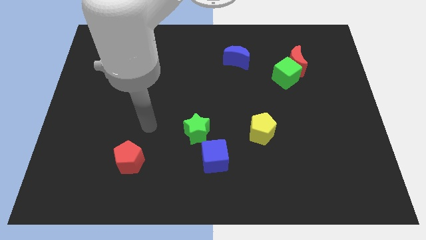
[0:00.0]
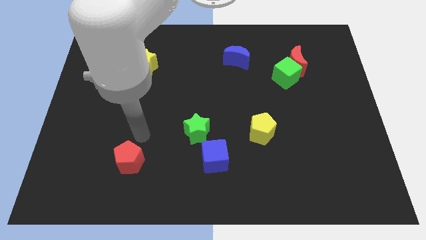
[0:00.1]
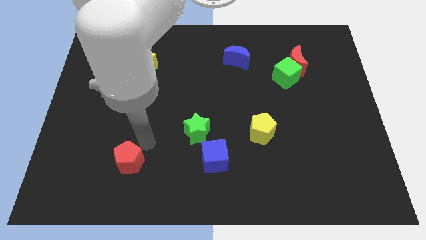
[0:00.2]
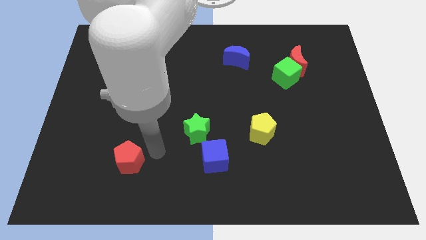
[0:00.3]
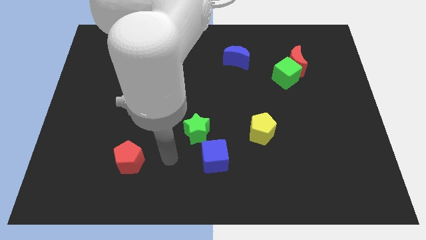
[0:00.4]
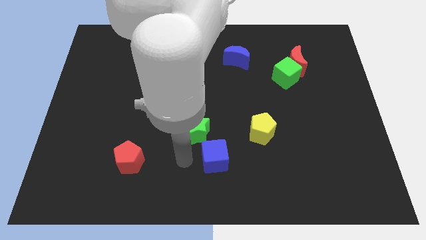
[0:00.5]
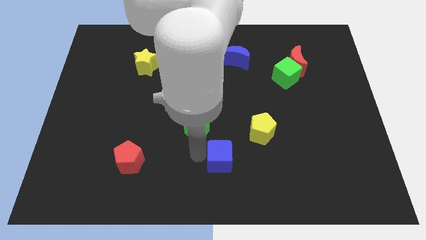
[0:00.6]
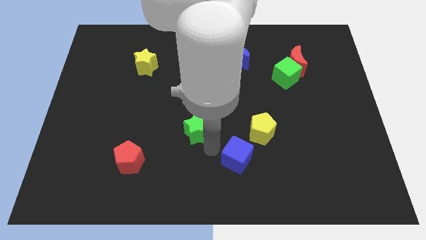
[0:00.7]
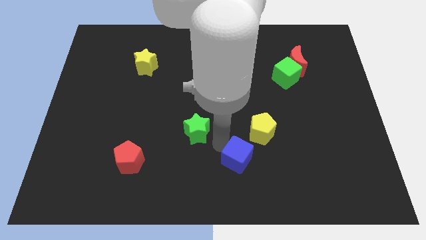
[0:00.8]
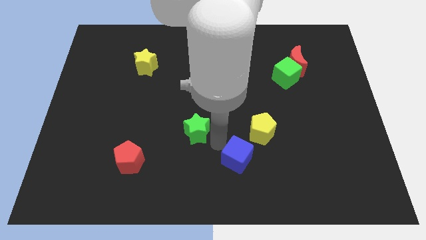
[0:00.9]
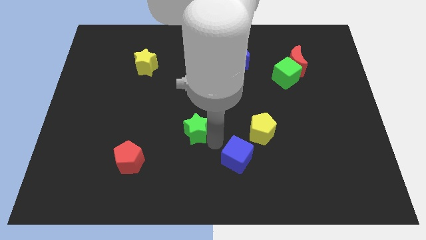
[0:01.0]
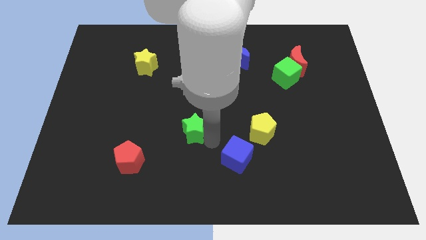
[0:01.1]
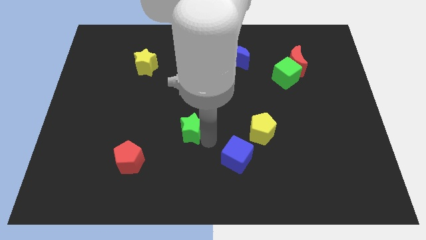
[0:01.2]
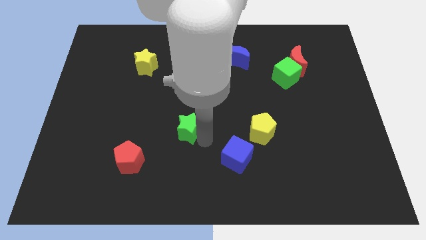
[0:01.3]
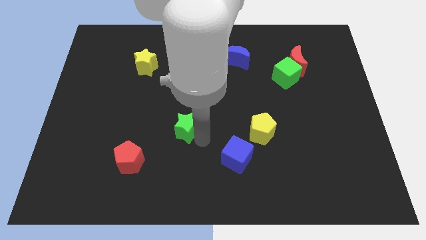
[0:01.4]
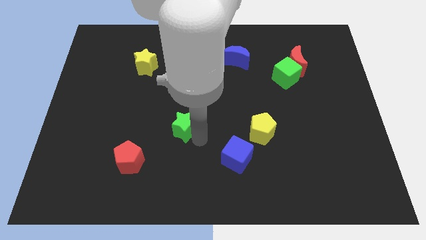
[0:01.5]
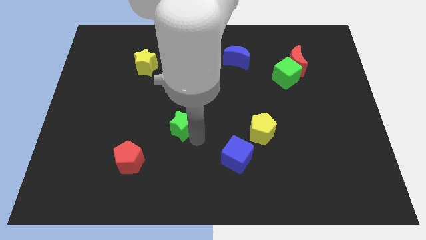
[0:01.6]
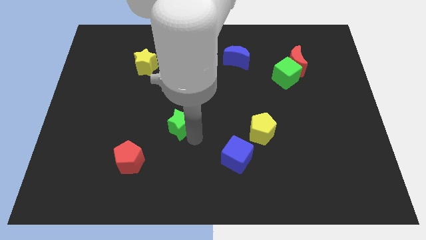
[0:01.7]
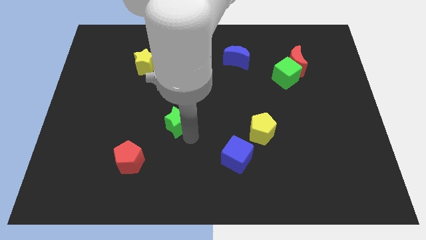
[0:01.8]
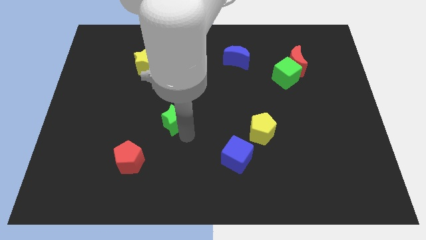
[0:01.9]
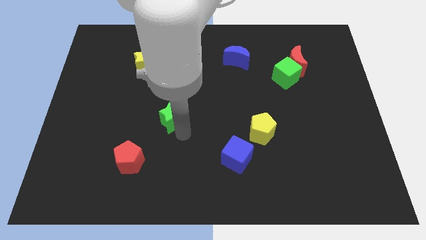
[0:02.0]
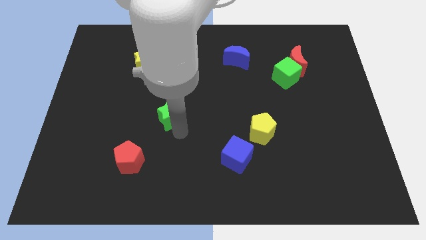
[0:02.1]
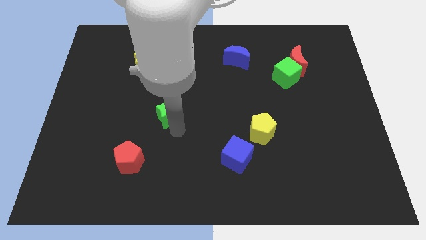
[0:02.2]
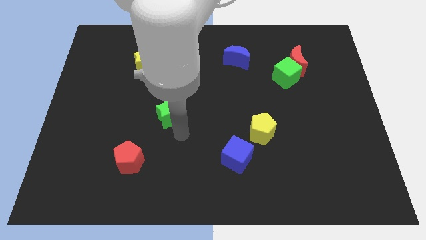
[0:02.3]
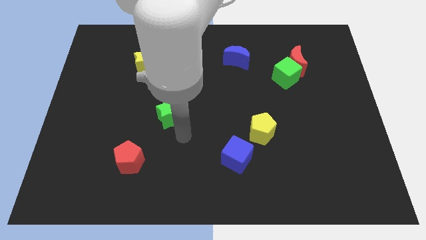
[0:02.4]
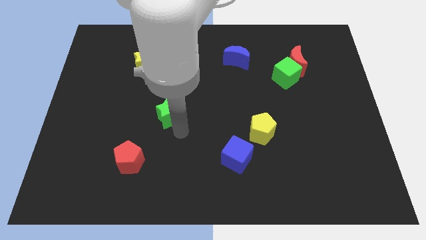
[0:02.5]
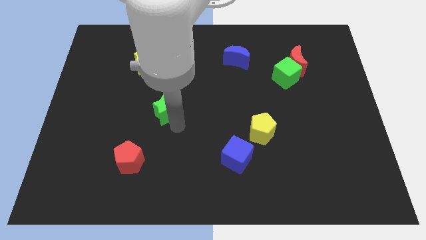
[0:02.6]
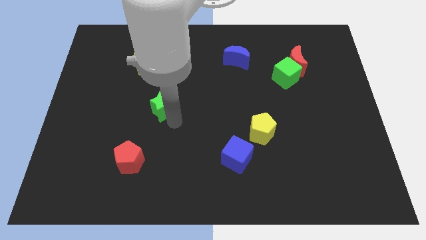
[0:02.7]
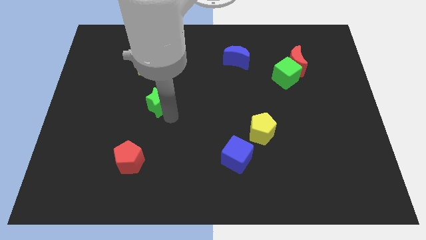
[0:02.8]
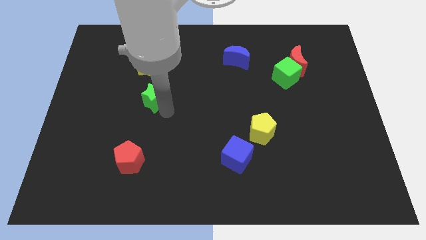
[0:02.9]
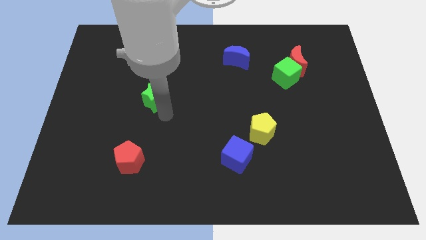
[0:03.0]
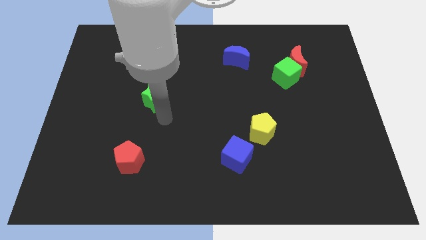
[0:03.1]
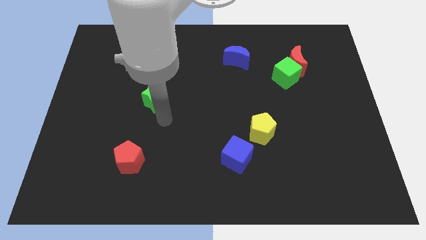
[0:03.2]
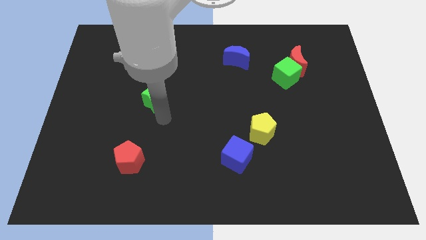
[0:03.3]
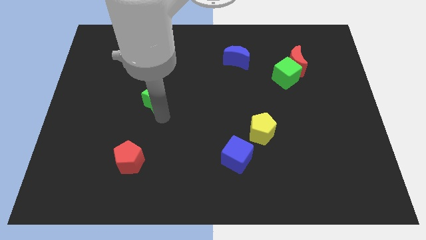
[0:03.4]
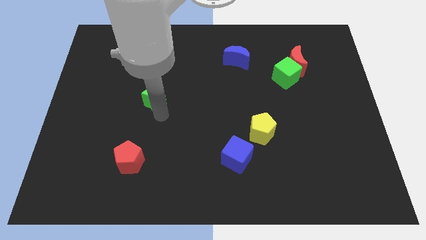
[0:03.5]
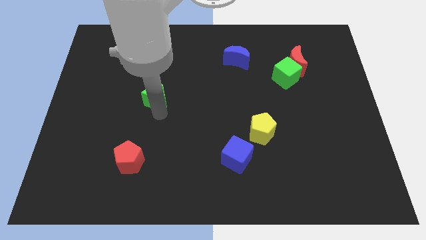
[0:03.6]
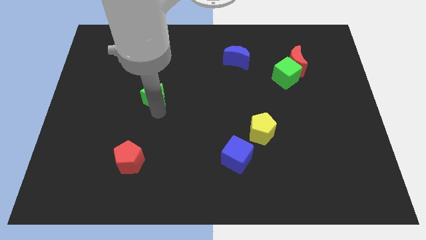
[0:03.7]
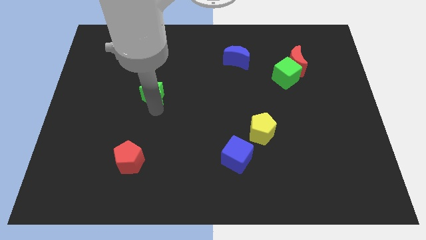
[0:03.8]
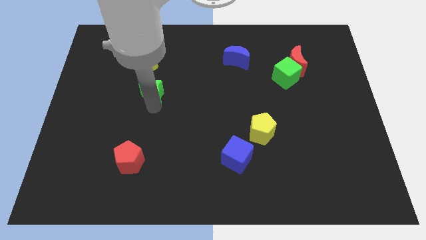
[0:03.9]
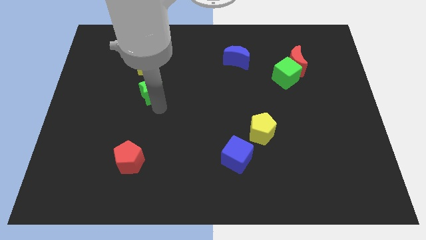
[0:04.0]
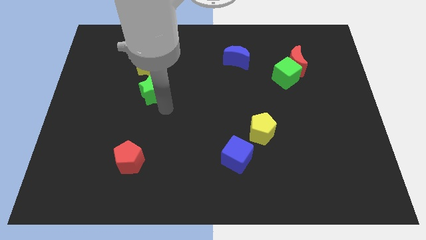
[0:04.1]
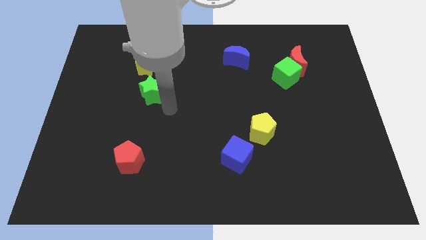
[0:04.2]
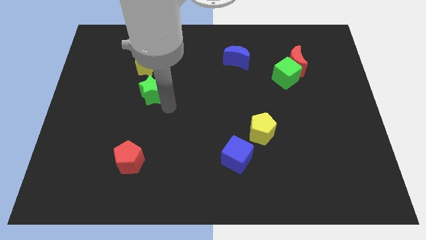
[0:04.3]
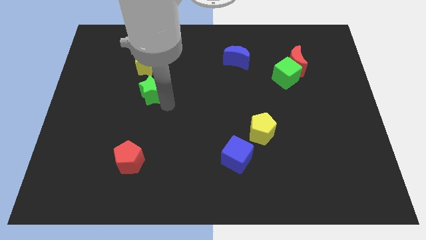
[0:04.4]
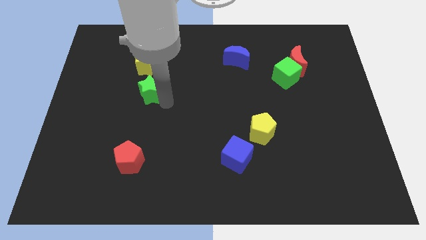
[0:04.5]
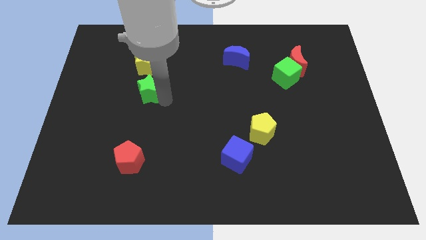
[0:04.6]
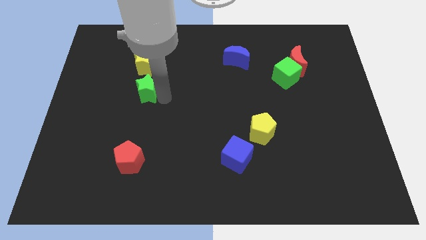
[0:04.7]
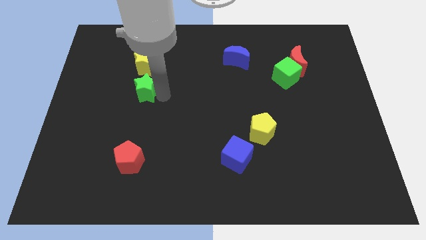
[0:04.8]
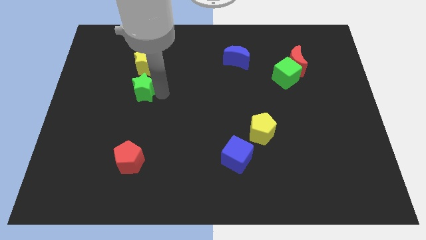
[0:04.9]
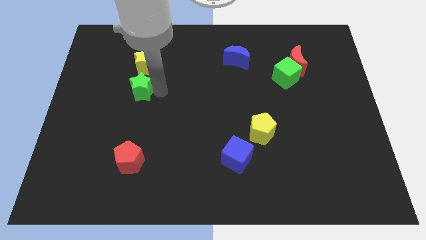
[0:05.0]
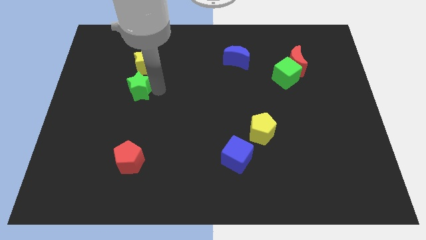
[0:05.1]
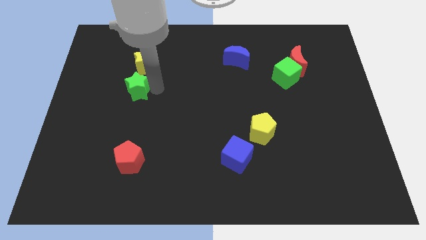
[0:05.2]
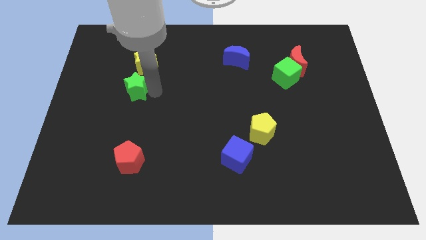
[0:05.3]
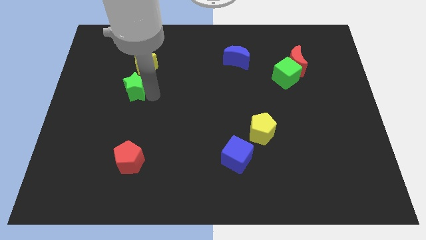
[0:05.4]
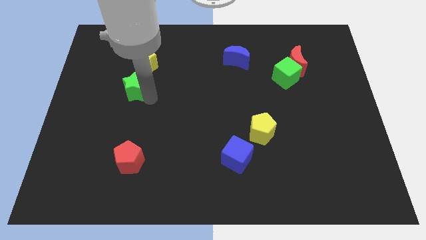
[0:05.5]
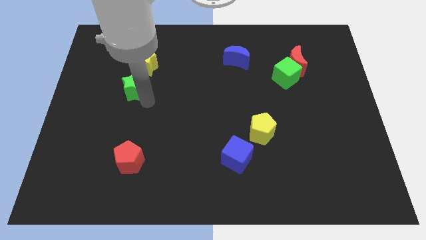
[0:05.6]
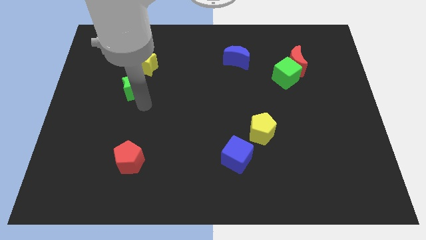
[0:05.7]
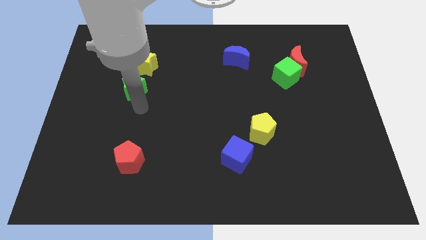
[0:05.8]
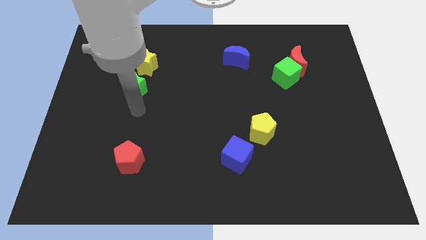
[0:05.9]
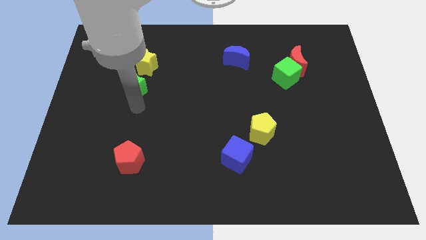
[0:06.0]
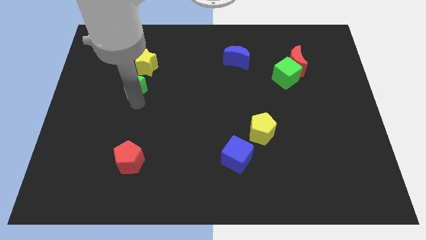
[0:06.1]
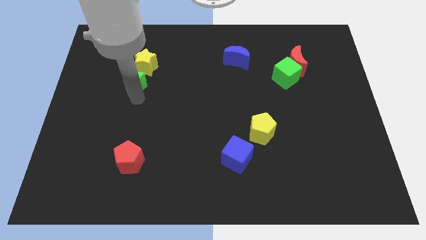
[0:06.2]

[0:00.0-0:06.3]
slide the green star up and then left

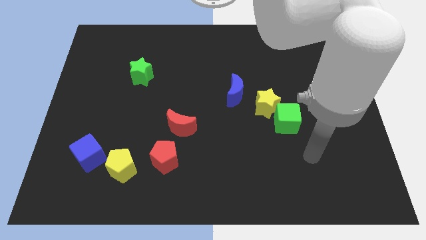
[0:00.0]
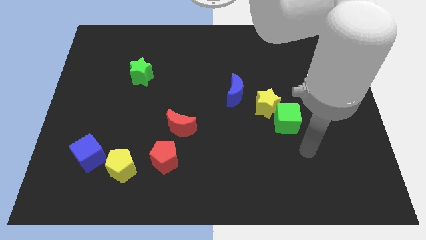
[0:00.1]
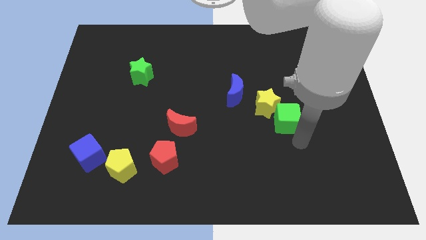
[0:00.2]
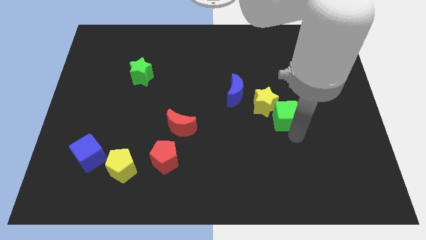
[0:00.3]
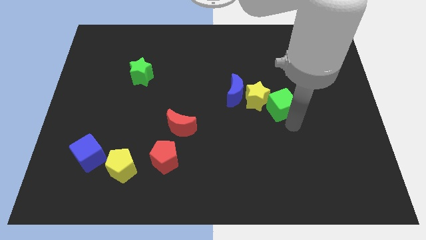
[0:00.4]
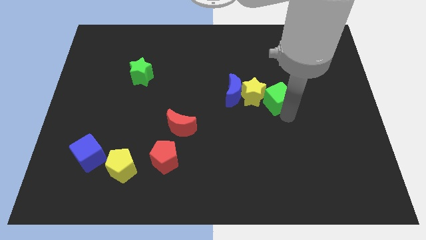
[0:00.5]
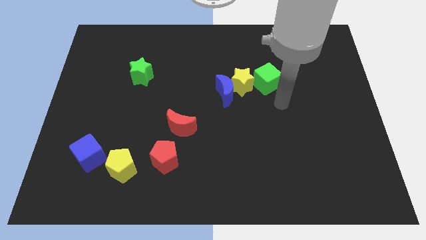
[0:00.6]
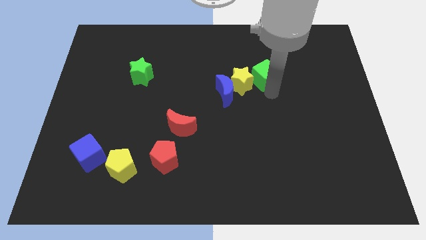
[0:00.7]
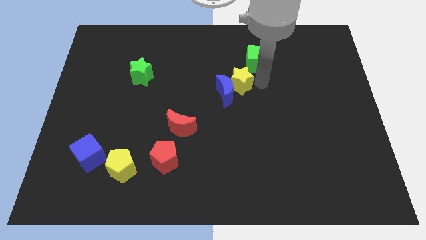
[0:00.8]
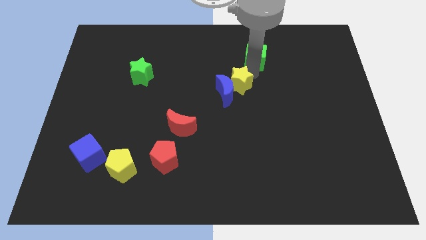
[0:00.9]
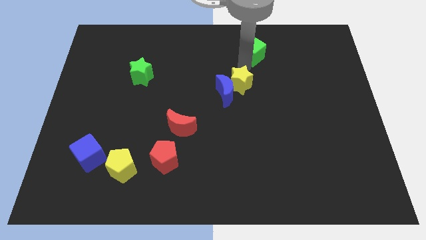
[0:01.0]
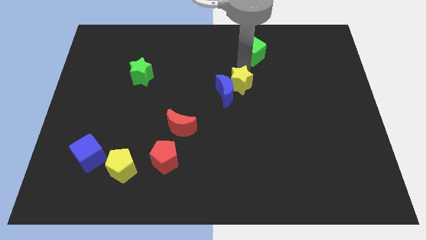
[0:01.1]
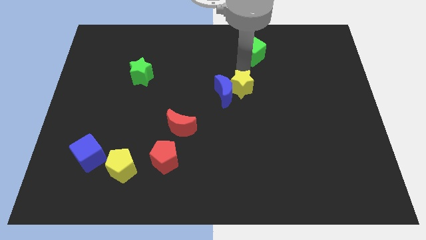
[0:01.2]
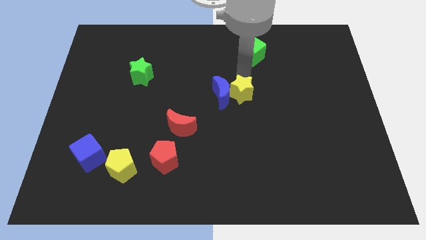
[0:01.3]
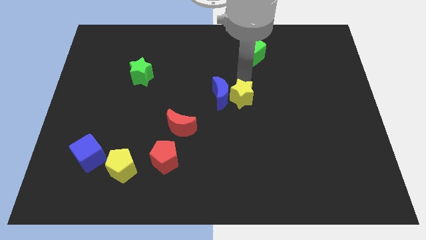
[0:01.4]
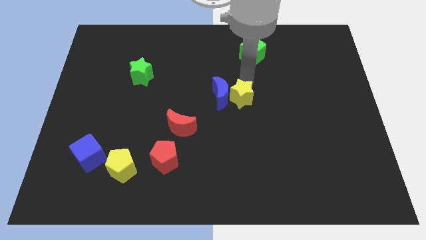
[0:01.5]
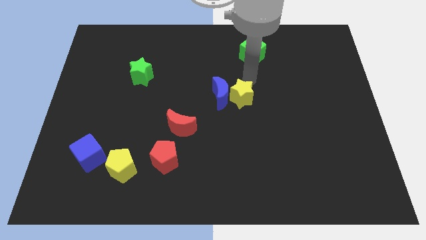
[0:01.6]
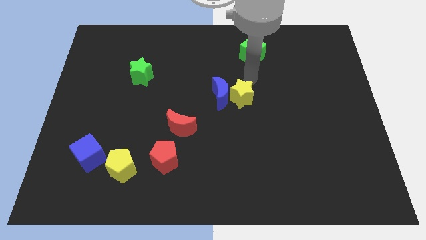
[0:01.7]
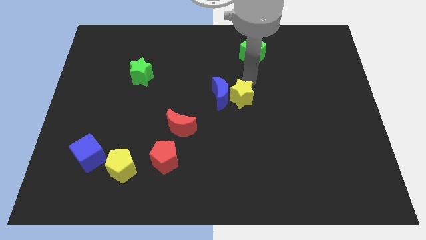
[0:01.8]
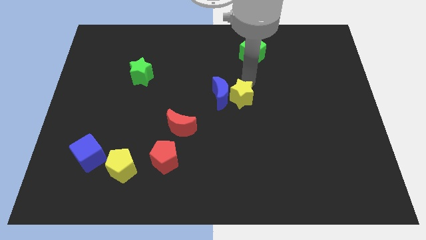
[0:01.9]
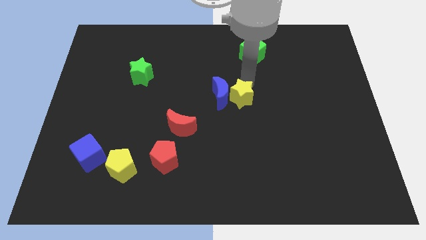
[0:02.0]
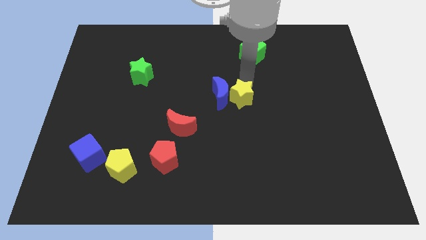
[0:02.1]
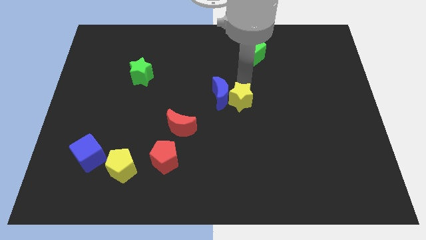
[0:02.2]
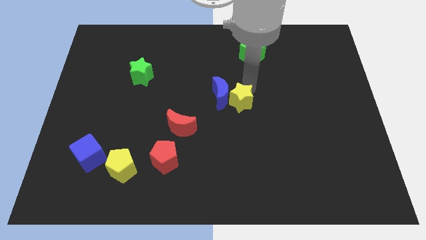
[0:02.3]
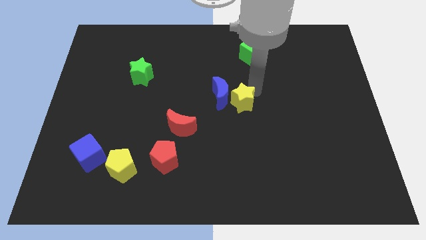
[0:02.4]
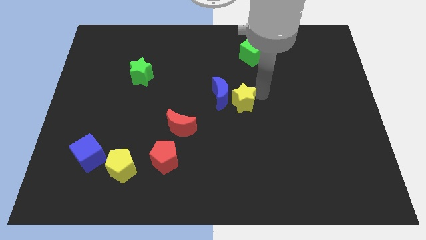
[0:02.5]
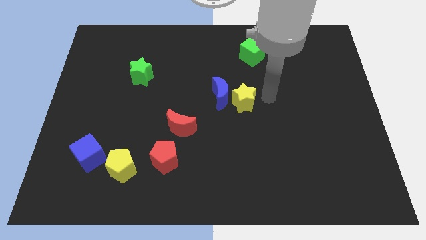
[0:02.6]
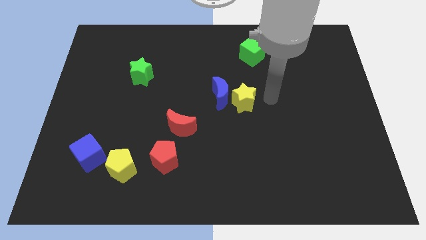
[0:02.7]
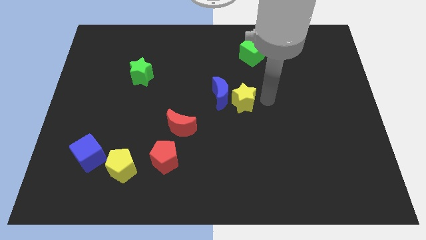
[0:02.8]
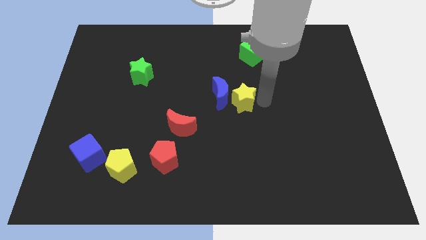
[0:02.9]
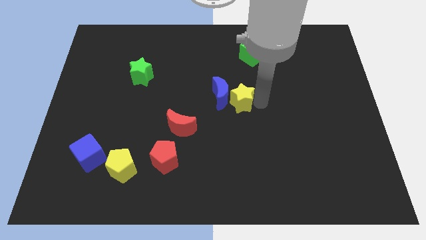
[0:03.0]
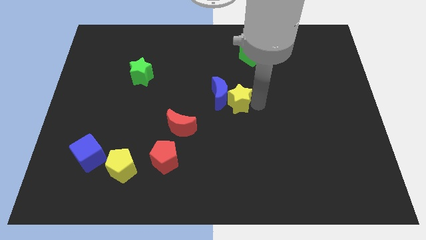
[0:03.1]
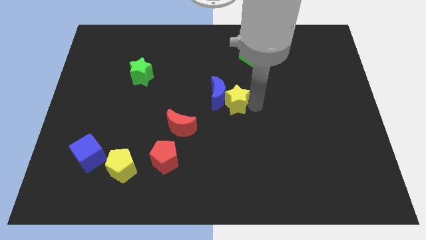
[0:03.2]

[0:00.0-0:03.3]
slightly push the yellow star to the left
